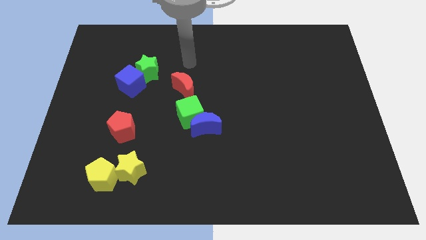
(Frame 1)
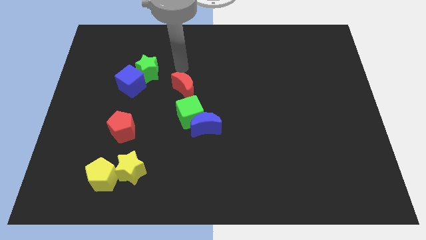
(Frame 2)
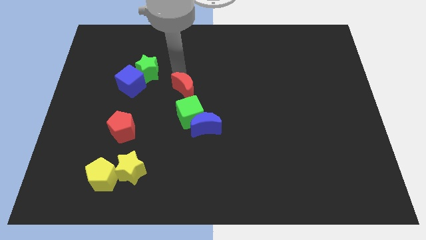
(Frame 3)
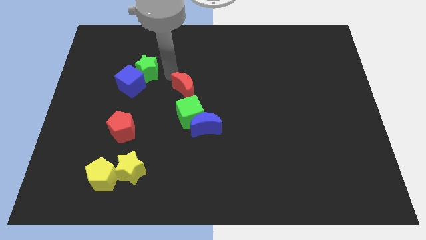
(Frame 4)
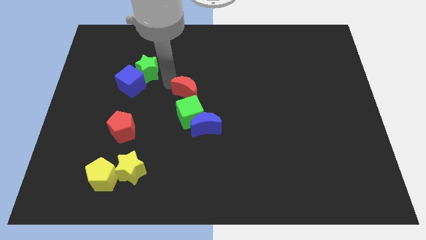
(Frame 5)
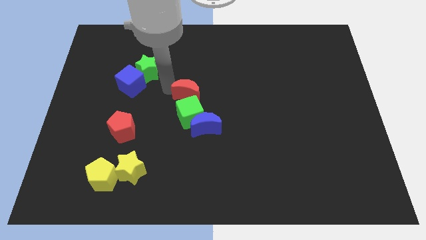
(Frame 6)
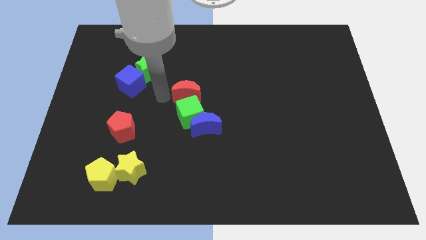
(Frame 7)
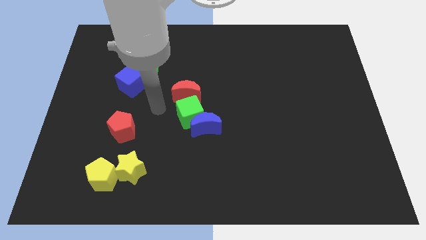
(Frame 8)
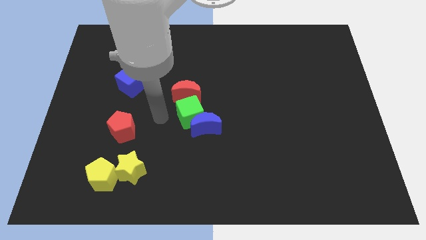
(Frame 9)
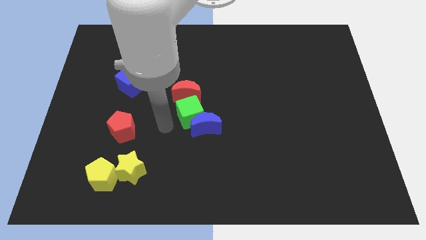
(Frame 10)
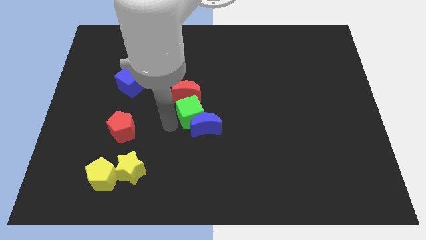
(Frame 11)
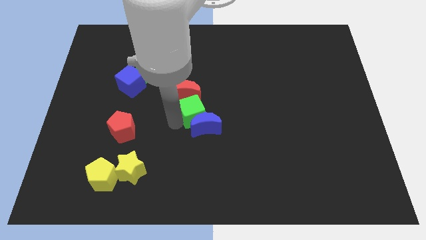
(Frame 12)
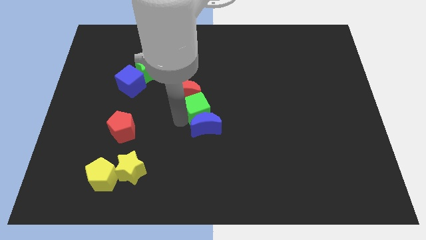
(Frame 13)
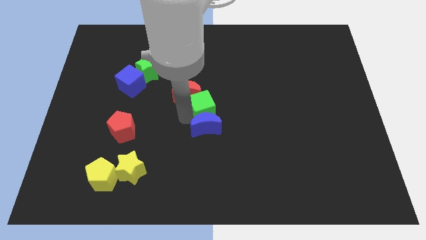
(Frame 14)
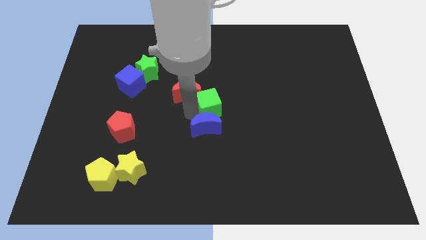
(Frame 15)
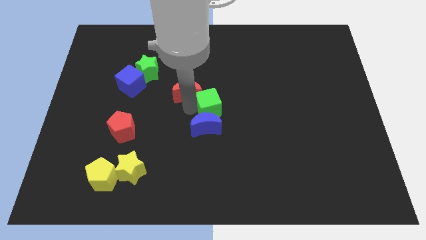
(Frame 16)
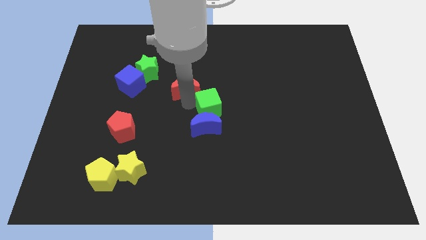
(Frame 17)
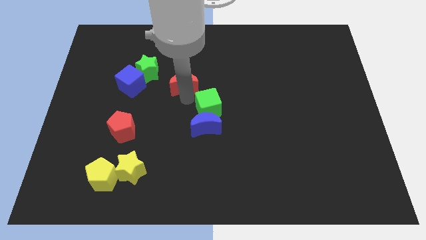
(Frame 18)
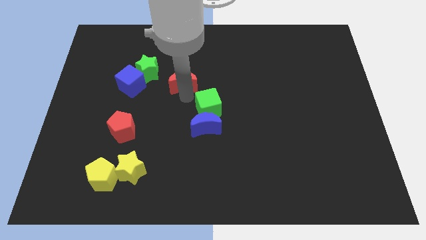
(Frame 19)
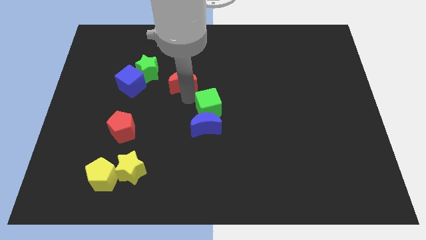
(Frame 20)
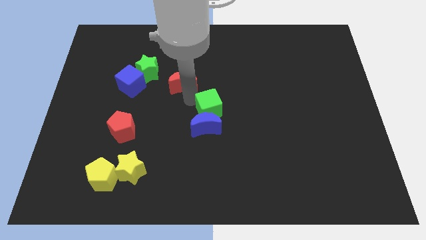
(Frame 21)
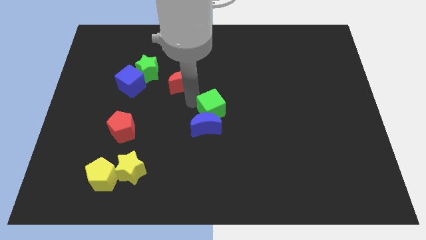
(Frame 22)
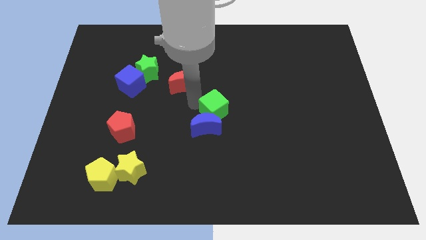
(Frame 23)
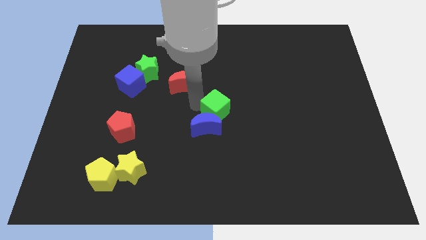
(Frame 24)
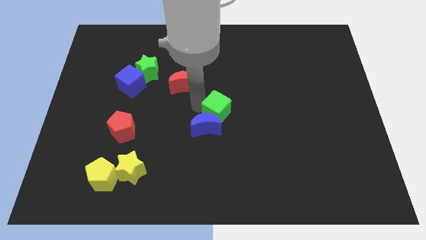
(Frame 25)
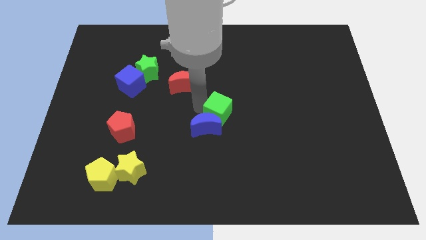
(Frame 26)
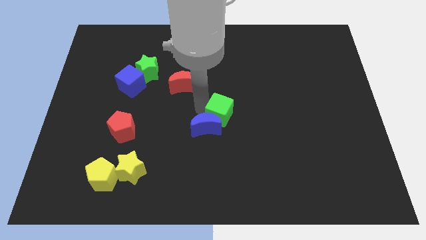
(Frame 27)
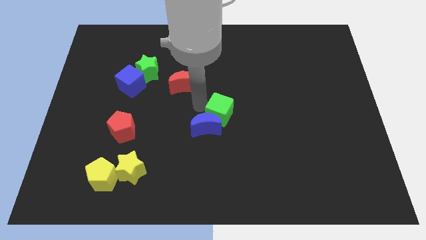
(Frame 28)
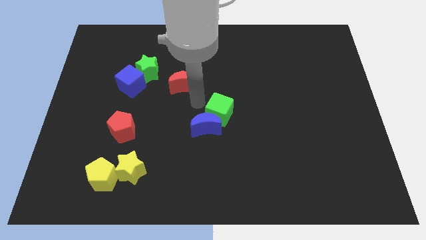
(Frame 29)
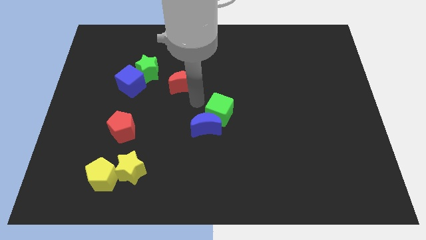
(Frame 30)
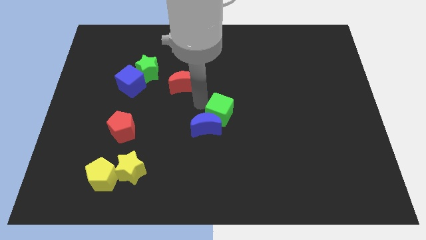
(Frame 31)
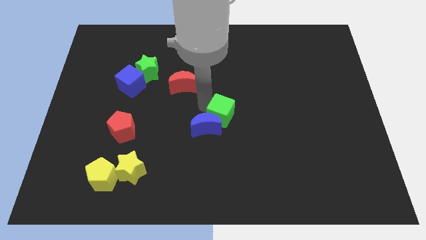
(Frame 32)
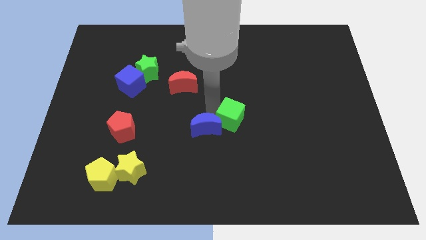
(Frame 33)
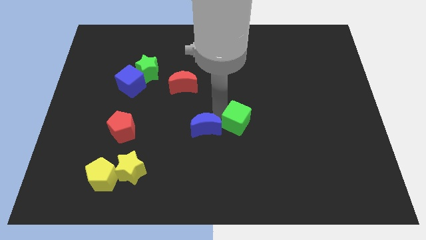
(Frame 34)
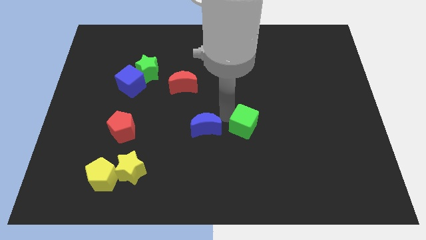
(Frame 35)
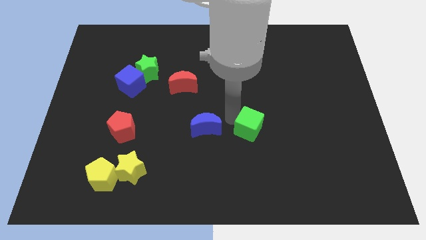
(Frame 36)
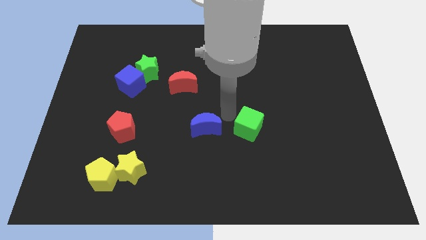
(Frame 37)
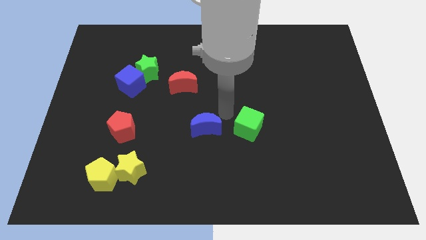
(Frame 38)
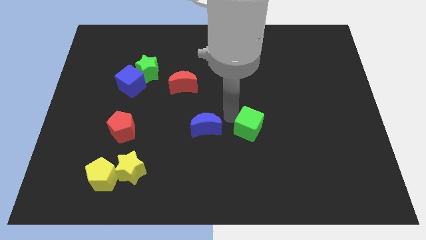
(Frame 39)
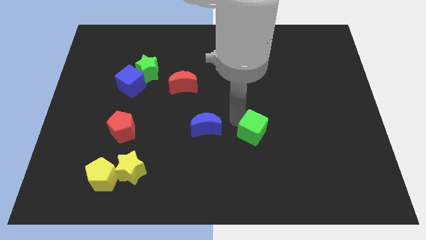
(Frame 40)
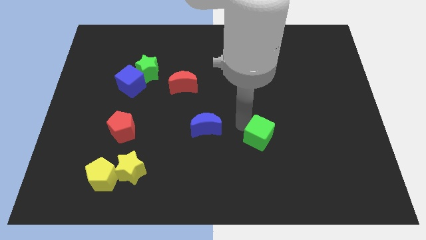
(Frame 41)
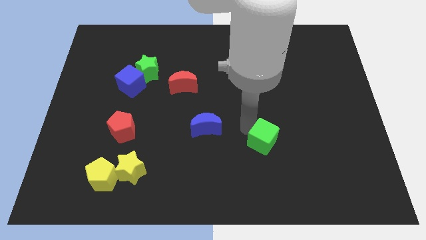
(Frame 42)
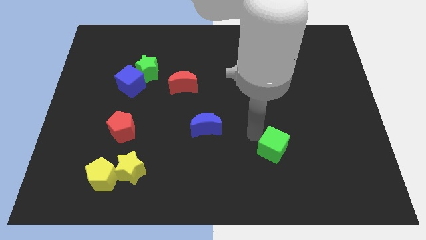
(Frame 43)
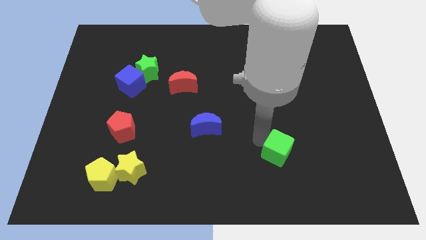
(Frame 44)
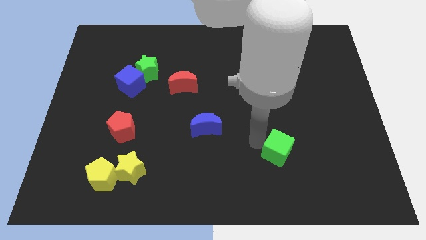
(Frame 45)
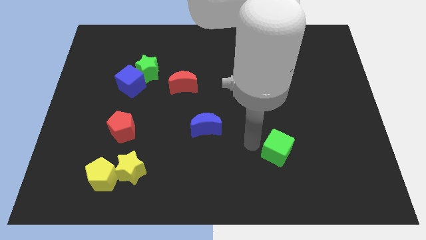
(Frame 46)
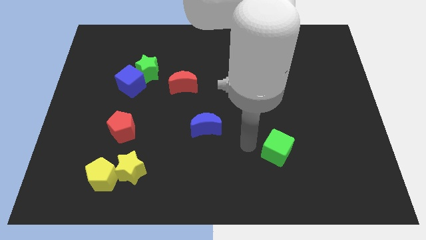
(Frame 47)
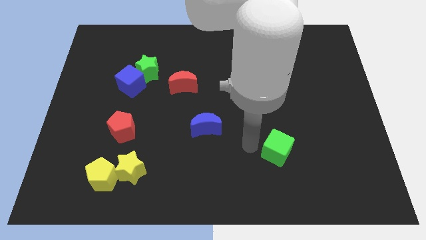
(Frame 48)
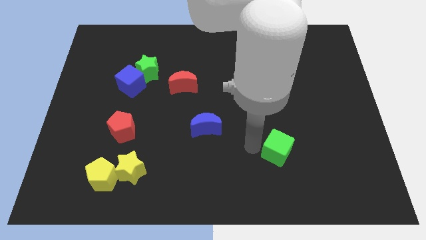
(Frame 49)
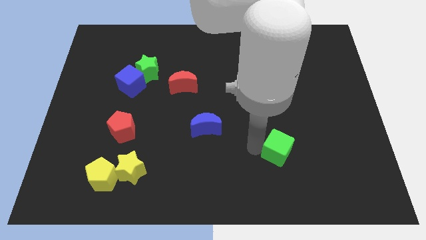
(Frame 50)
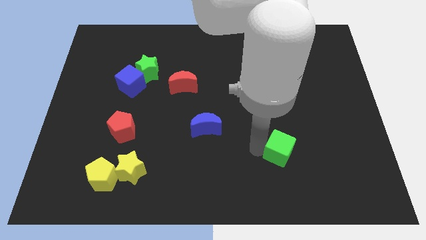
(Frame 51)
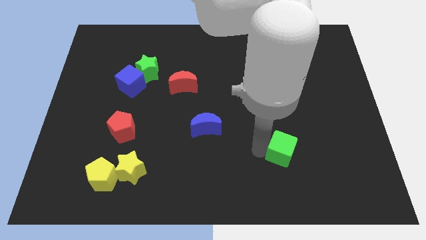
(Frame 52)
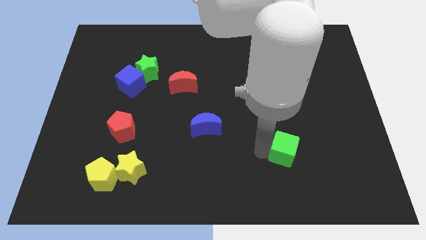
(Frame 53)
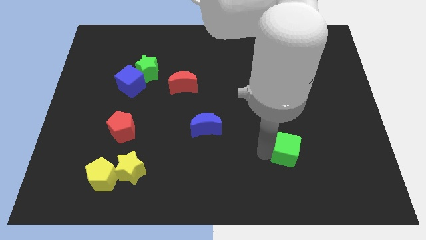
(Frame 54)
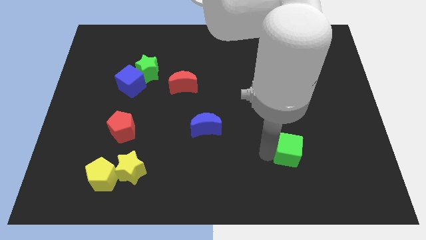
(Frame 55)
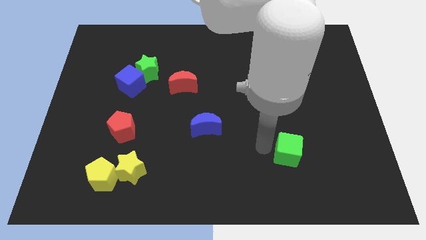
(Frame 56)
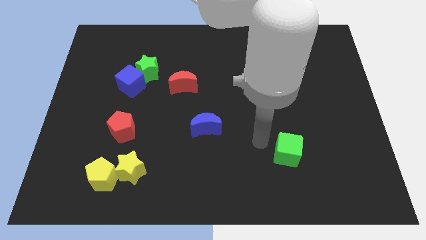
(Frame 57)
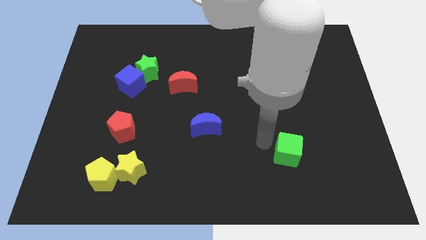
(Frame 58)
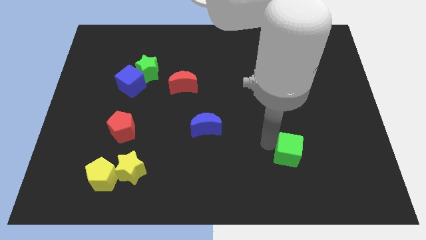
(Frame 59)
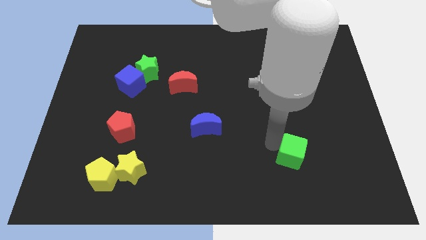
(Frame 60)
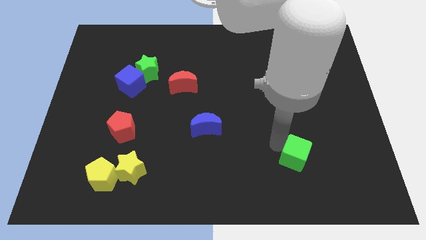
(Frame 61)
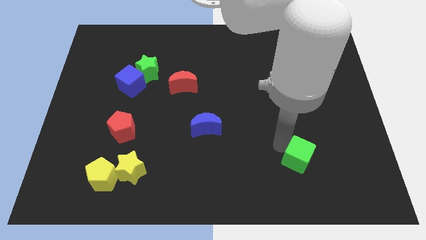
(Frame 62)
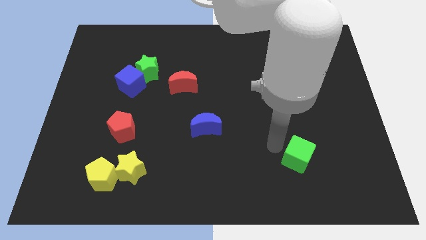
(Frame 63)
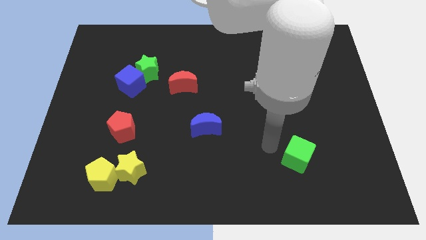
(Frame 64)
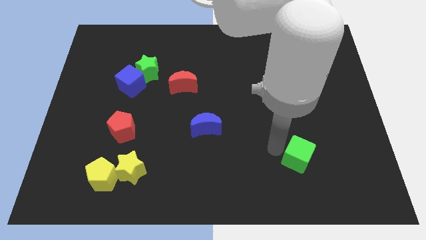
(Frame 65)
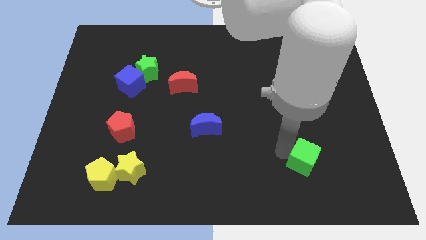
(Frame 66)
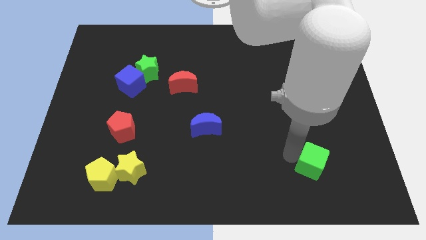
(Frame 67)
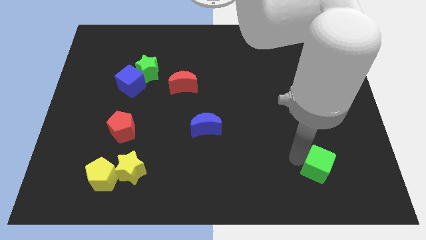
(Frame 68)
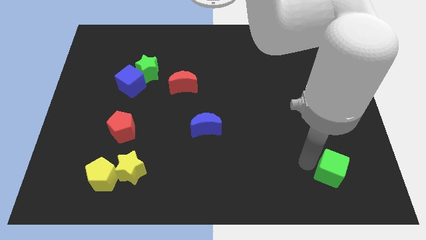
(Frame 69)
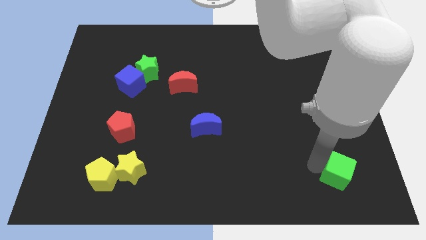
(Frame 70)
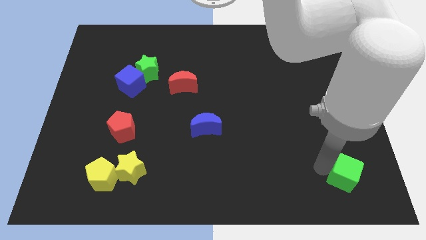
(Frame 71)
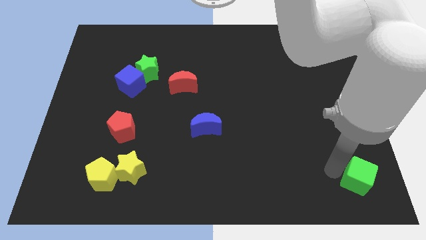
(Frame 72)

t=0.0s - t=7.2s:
move the green cube to the bottom right of the board
